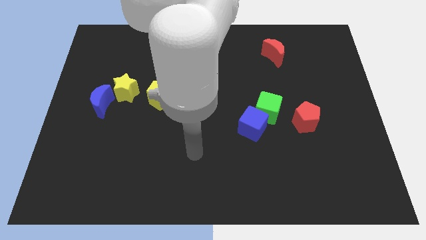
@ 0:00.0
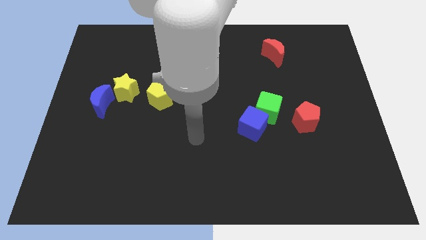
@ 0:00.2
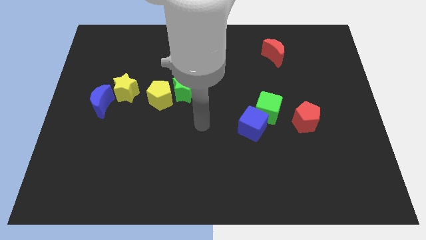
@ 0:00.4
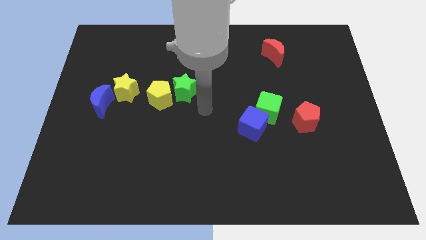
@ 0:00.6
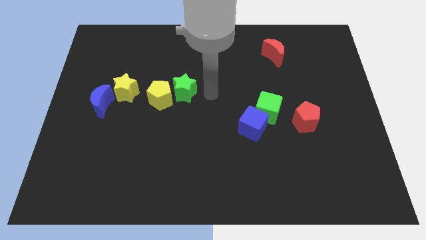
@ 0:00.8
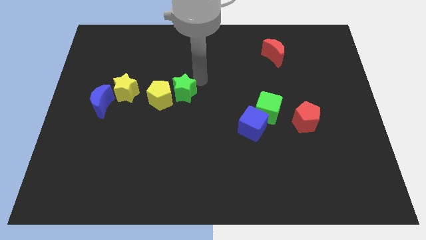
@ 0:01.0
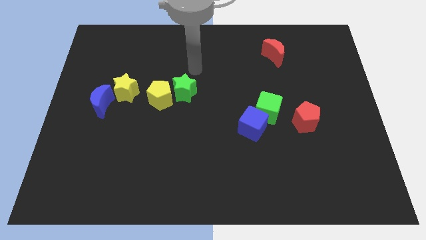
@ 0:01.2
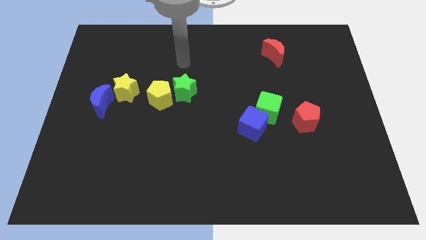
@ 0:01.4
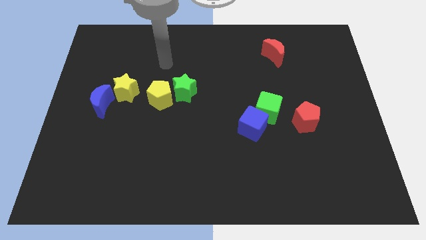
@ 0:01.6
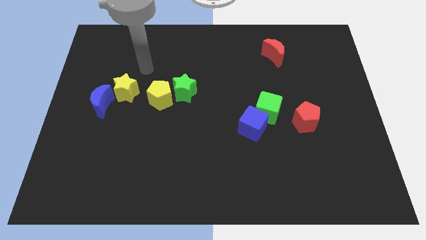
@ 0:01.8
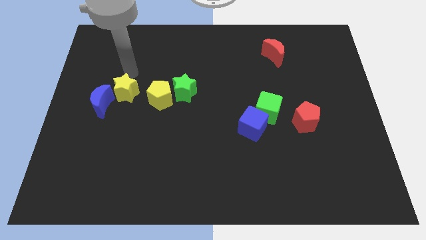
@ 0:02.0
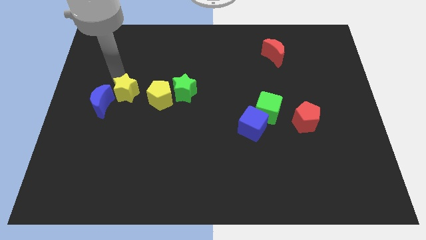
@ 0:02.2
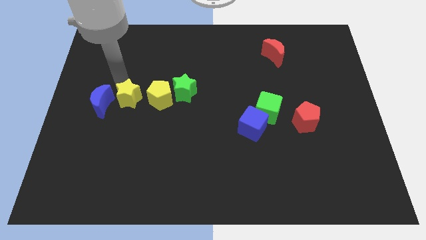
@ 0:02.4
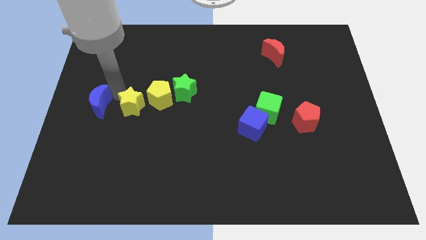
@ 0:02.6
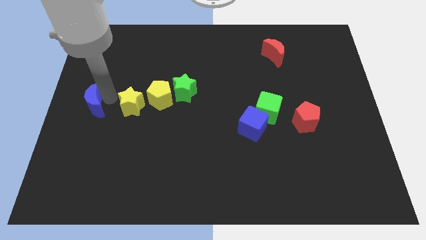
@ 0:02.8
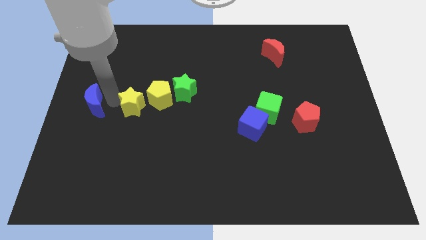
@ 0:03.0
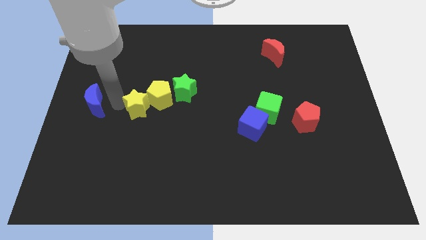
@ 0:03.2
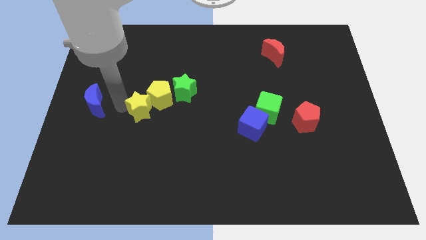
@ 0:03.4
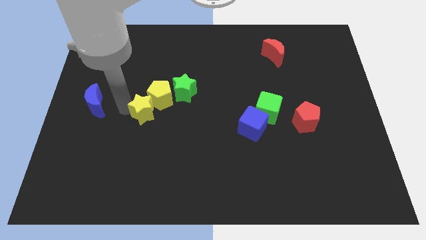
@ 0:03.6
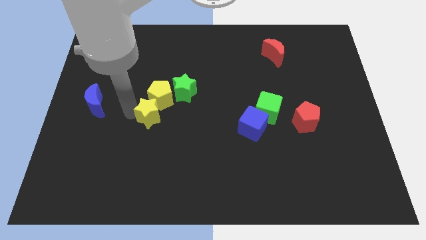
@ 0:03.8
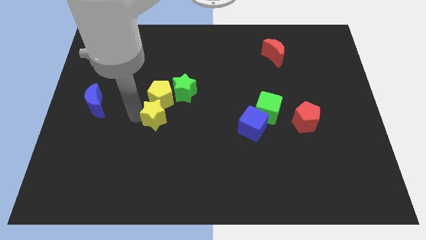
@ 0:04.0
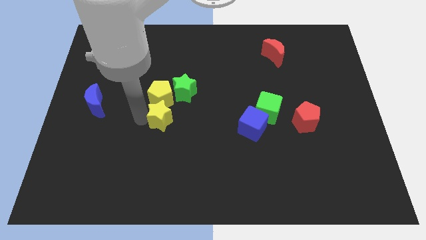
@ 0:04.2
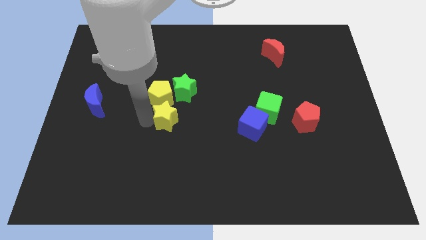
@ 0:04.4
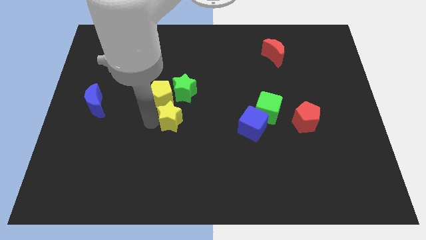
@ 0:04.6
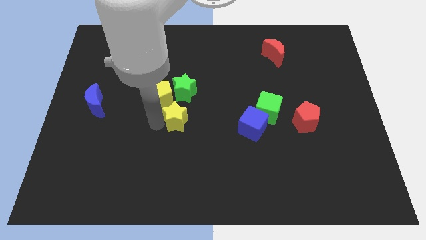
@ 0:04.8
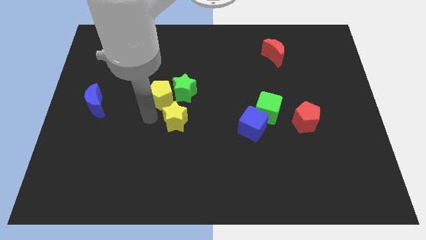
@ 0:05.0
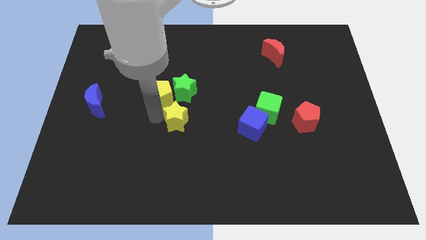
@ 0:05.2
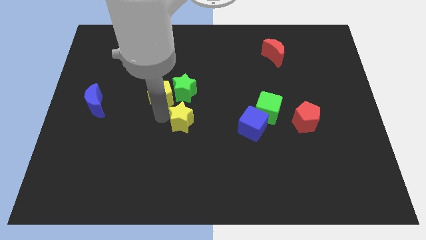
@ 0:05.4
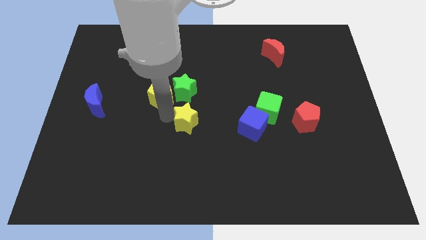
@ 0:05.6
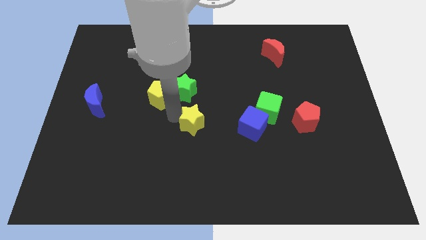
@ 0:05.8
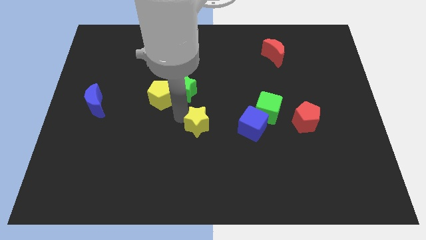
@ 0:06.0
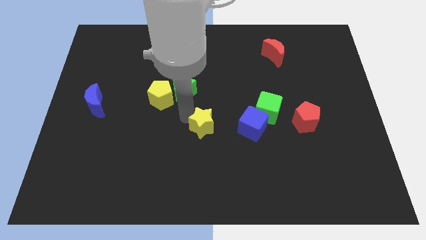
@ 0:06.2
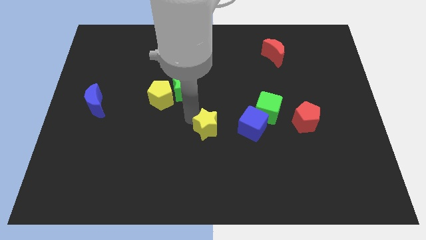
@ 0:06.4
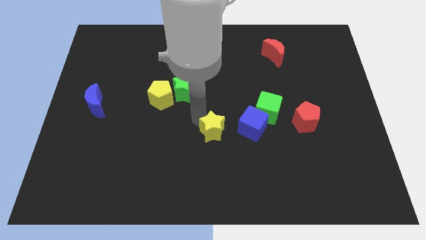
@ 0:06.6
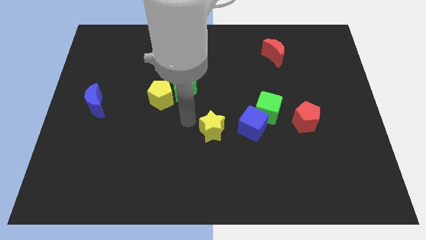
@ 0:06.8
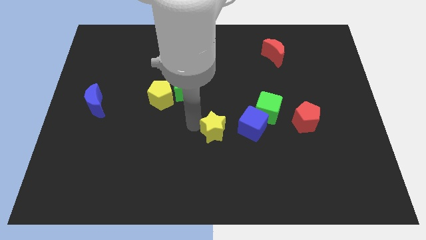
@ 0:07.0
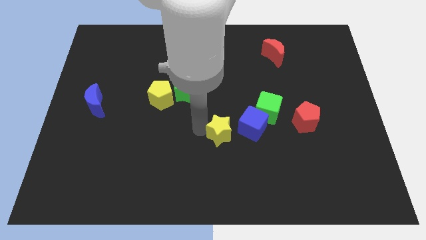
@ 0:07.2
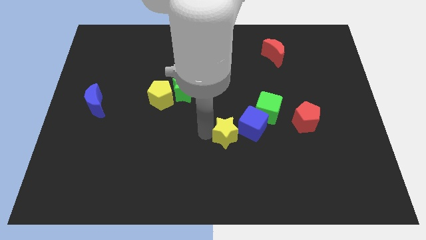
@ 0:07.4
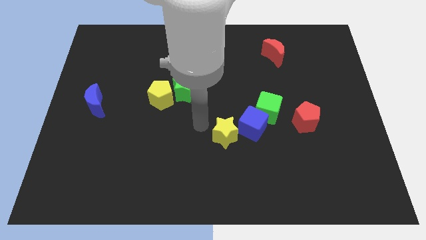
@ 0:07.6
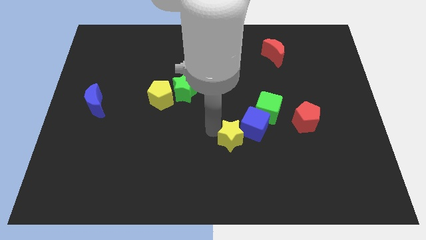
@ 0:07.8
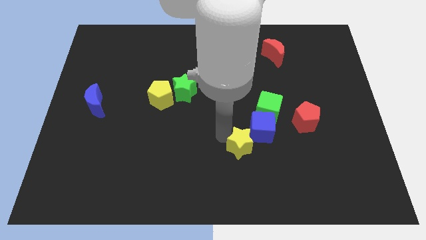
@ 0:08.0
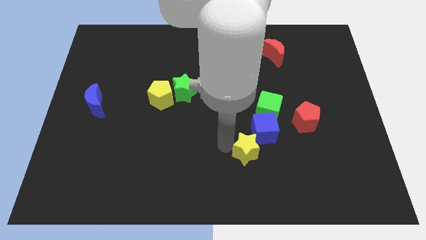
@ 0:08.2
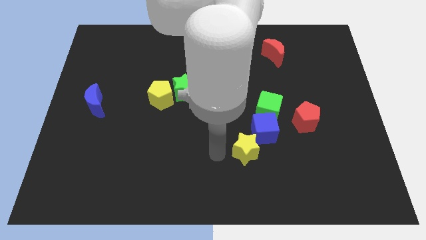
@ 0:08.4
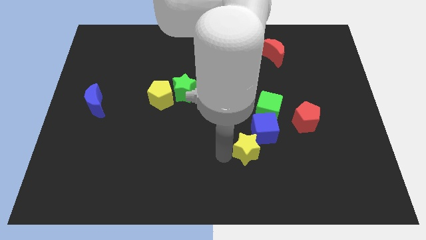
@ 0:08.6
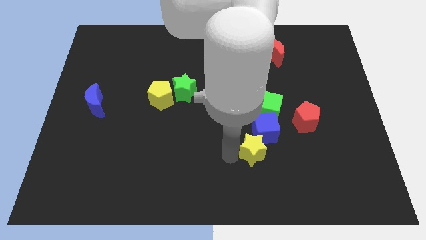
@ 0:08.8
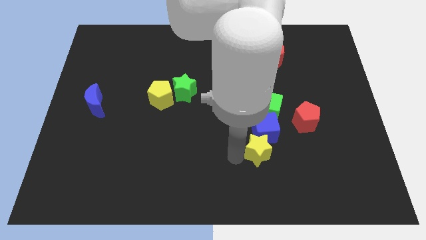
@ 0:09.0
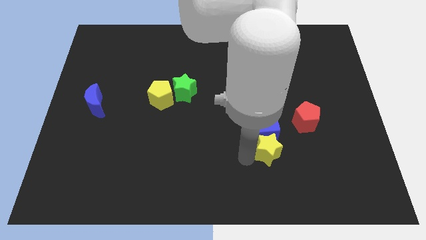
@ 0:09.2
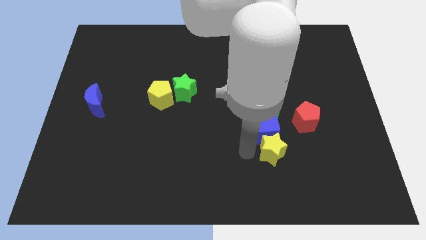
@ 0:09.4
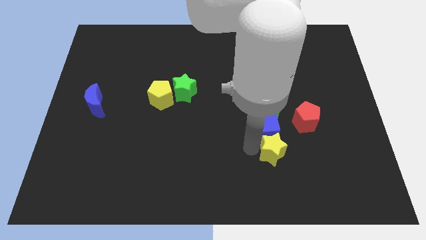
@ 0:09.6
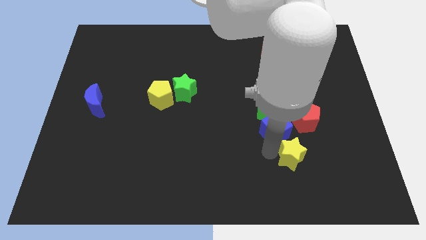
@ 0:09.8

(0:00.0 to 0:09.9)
move the yellow star to the bottom side of the red pentagon

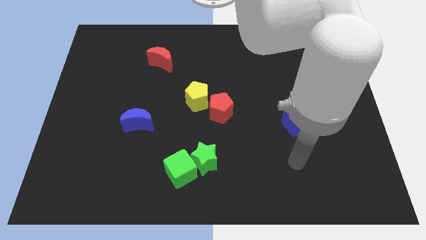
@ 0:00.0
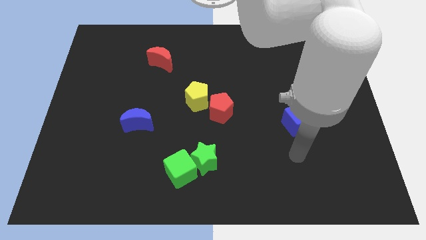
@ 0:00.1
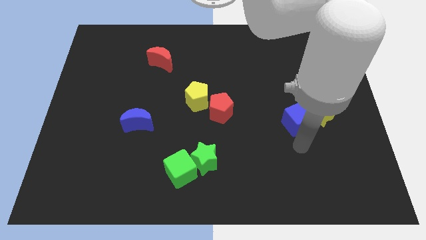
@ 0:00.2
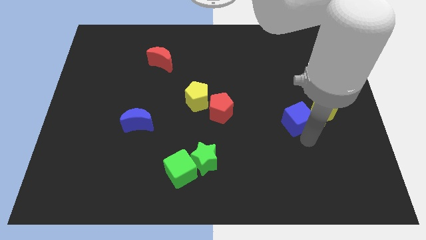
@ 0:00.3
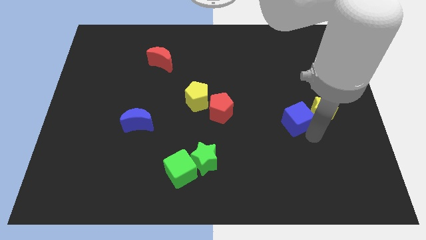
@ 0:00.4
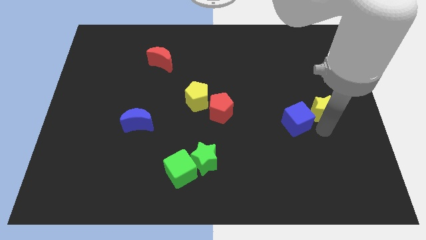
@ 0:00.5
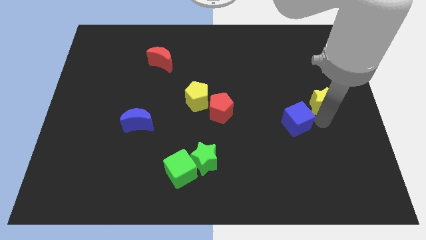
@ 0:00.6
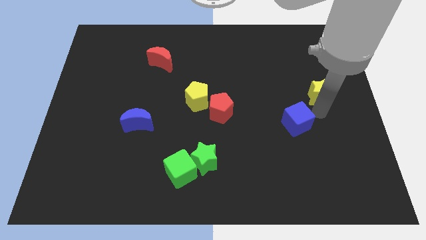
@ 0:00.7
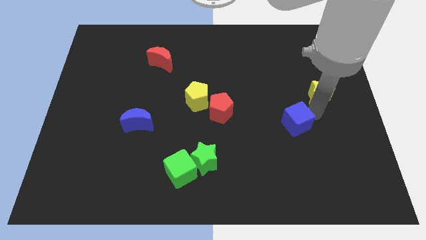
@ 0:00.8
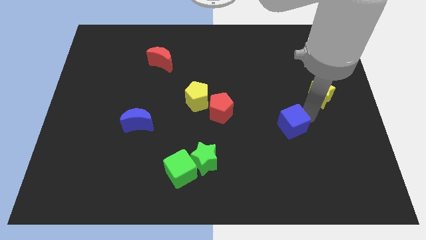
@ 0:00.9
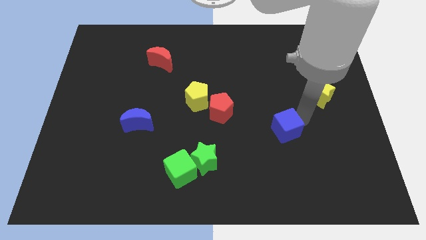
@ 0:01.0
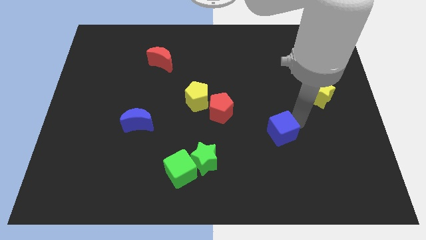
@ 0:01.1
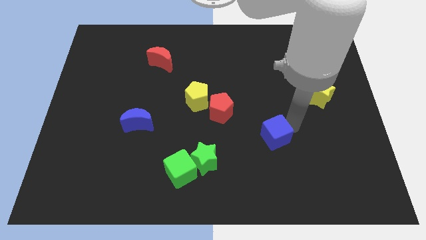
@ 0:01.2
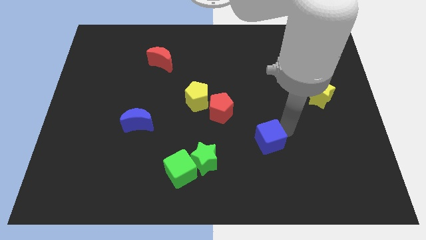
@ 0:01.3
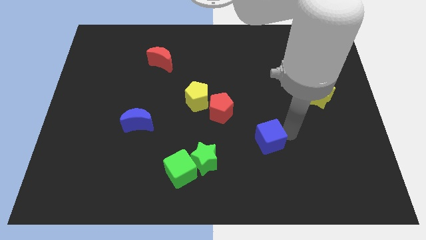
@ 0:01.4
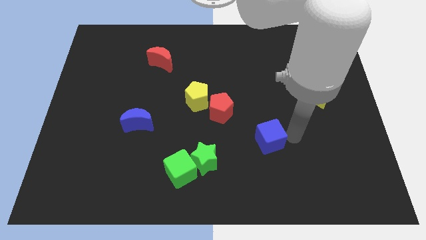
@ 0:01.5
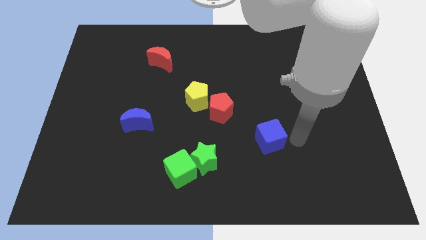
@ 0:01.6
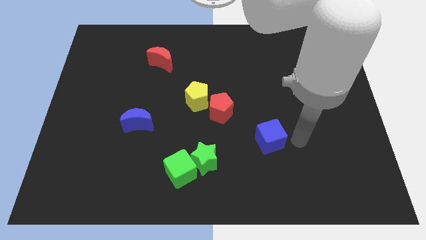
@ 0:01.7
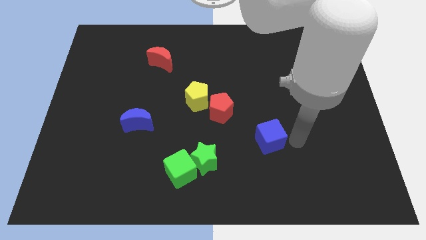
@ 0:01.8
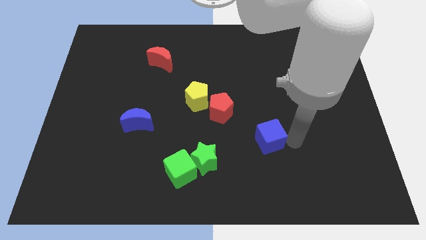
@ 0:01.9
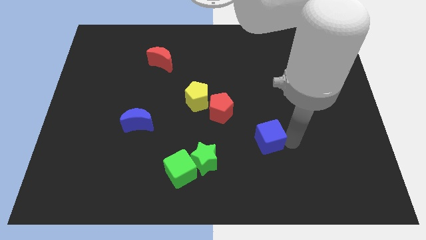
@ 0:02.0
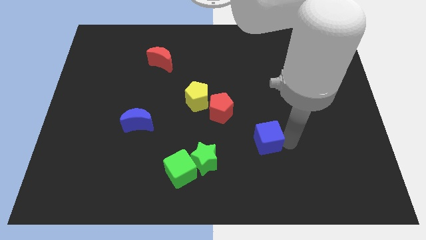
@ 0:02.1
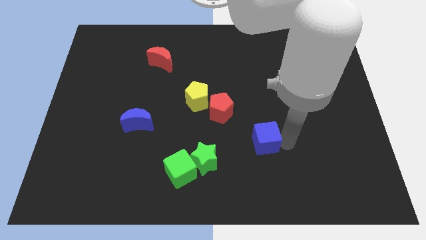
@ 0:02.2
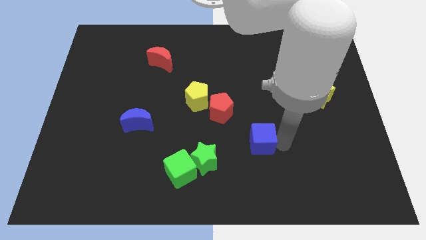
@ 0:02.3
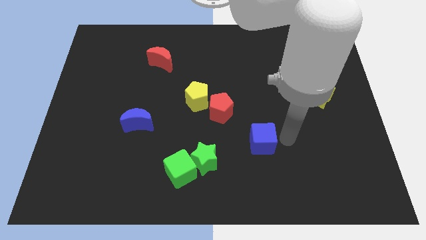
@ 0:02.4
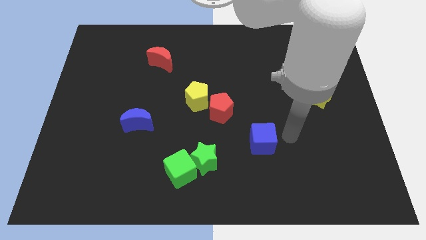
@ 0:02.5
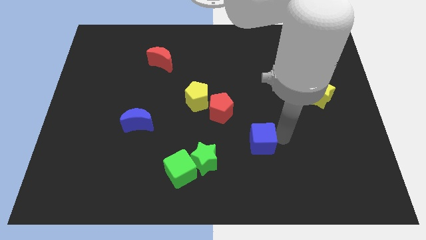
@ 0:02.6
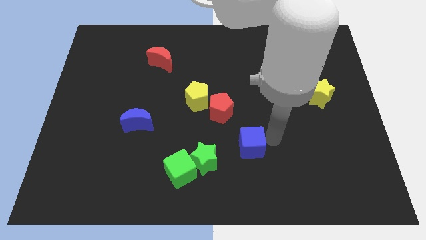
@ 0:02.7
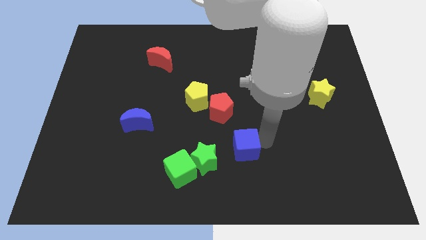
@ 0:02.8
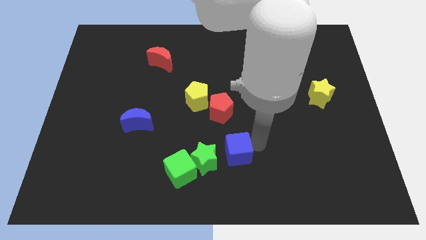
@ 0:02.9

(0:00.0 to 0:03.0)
put the blue cube to the bottom of the red pentagon
